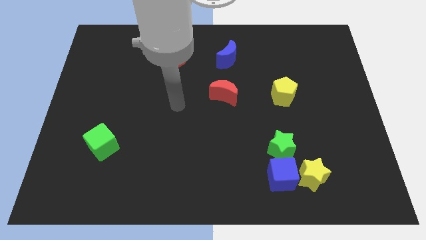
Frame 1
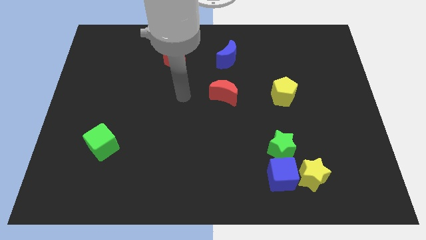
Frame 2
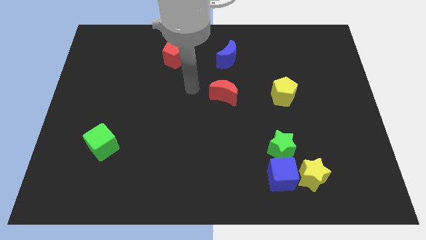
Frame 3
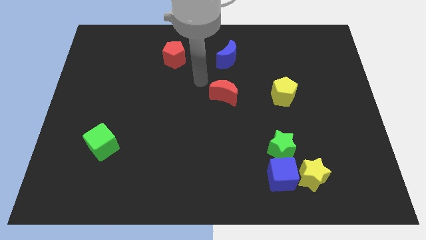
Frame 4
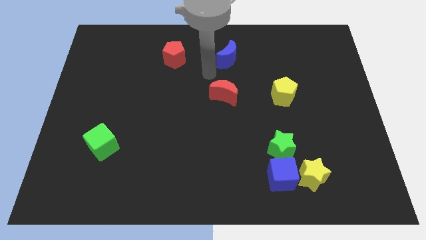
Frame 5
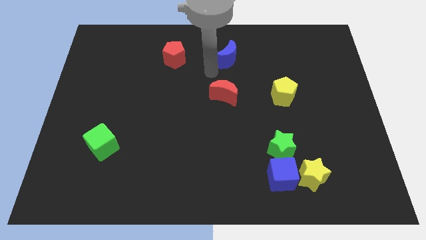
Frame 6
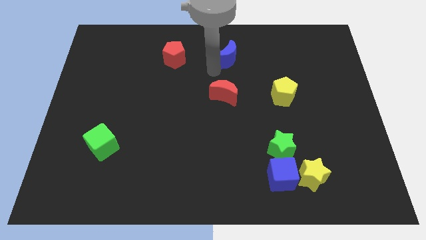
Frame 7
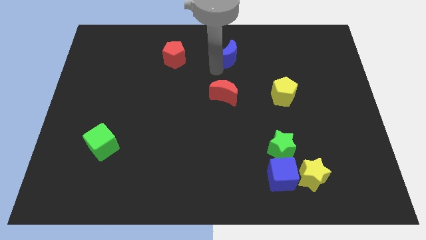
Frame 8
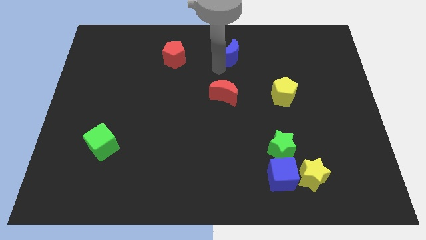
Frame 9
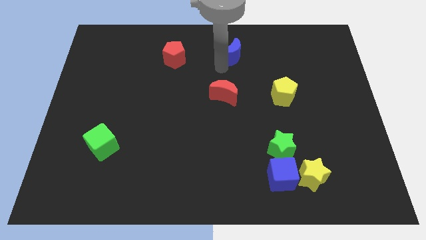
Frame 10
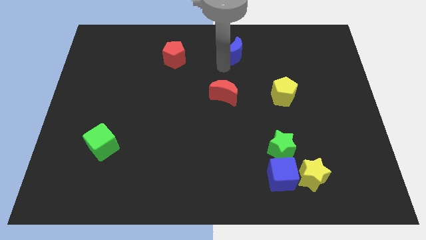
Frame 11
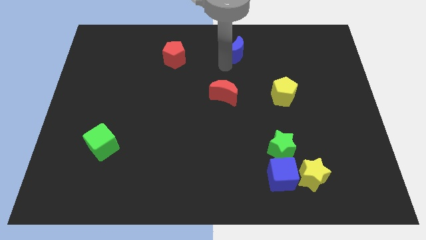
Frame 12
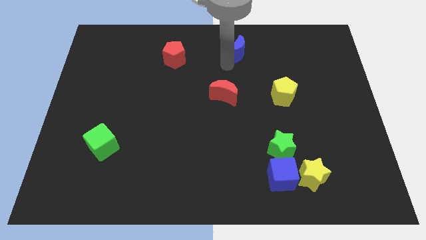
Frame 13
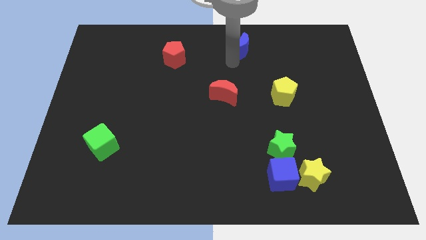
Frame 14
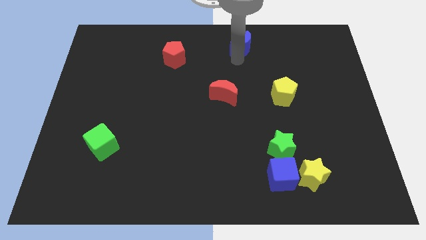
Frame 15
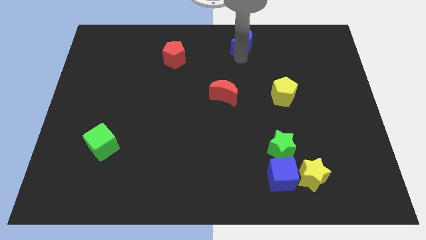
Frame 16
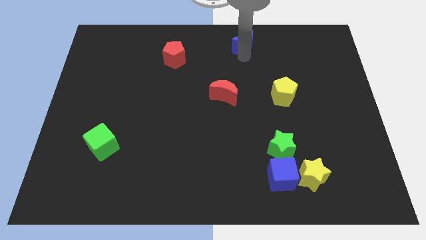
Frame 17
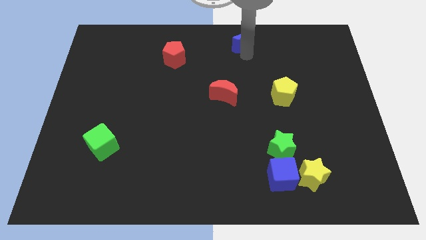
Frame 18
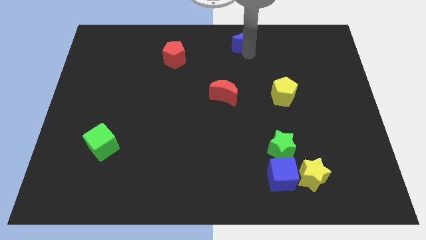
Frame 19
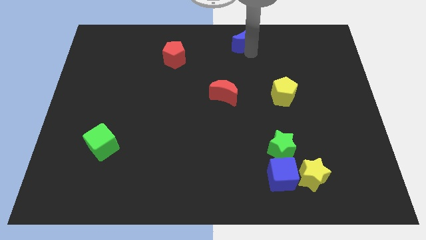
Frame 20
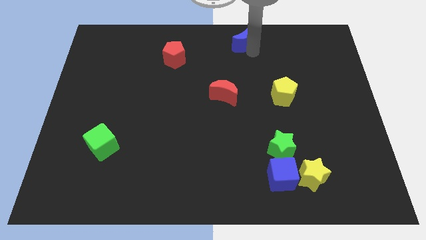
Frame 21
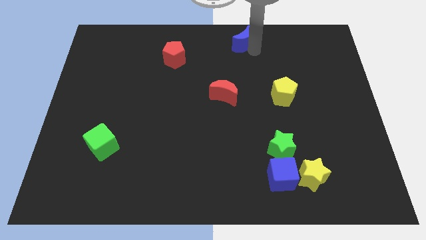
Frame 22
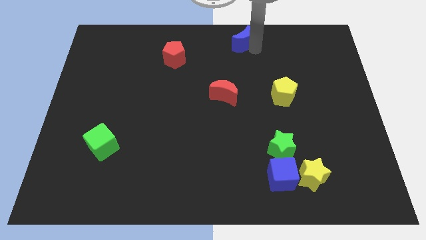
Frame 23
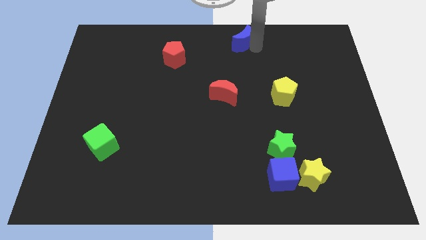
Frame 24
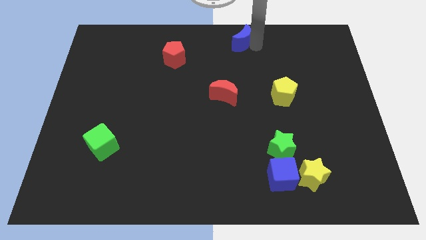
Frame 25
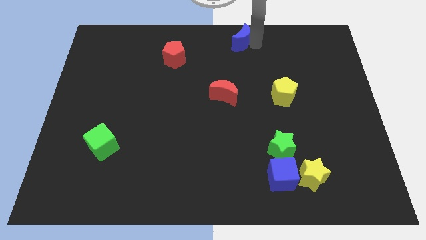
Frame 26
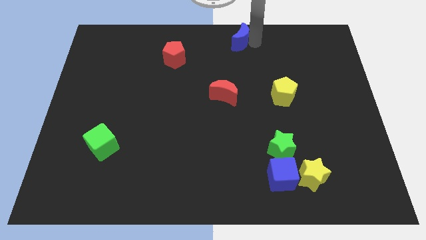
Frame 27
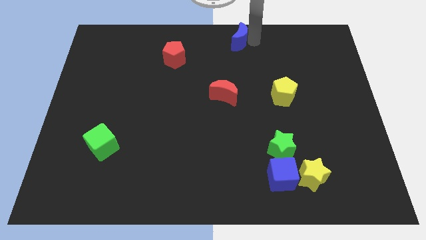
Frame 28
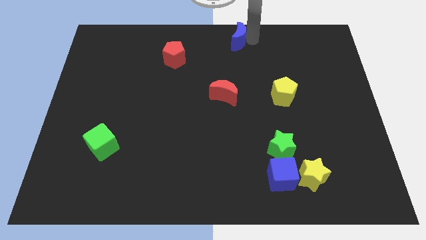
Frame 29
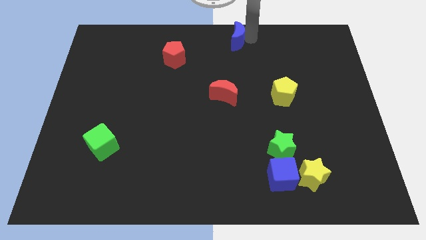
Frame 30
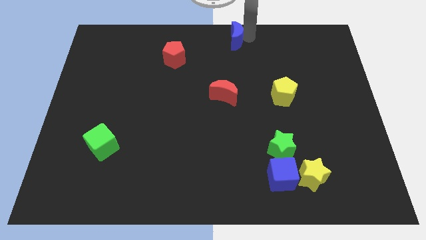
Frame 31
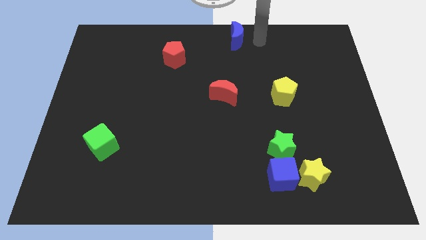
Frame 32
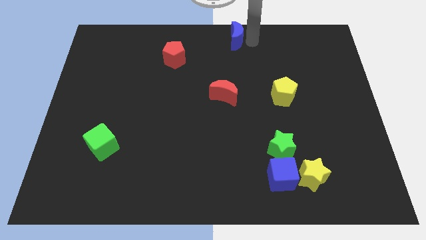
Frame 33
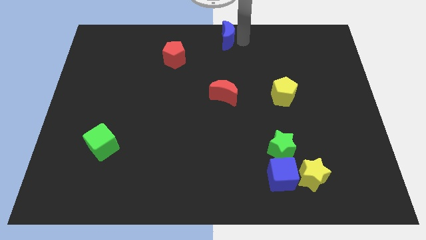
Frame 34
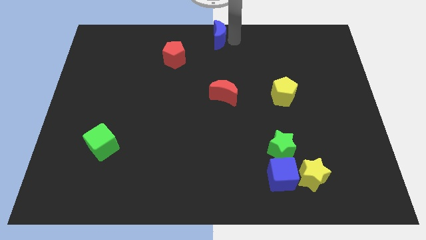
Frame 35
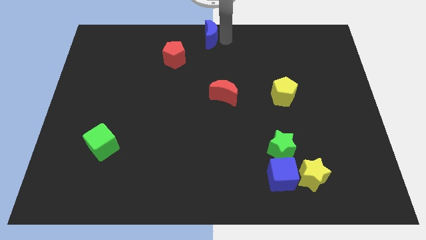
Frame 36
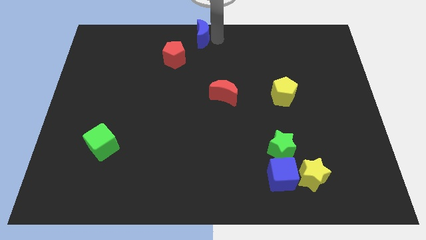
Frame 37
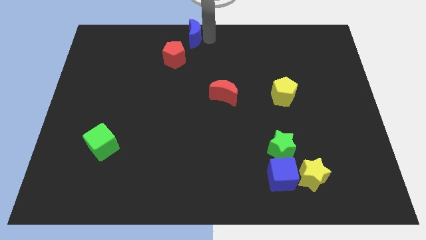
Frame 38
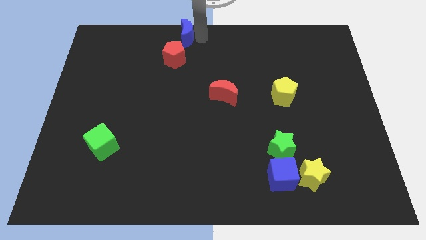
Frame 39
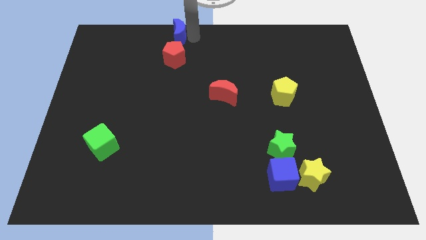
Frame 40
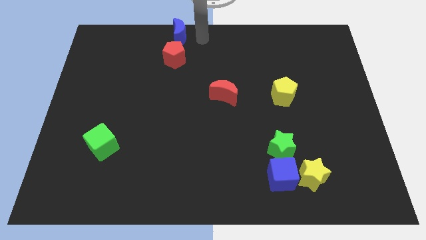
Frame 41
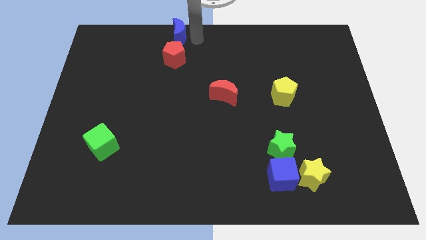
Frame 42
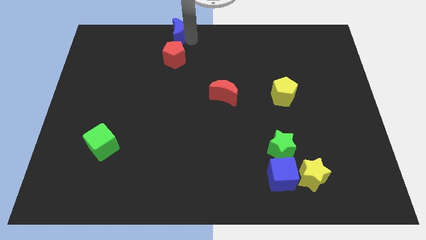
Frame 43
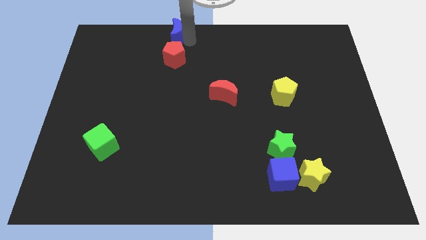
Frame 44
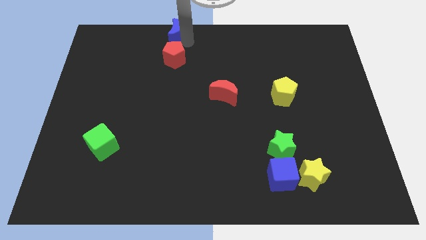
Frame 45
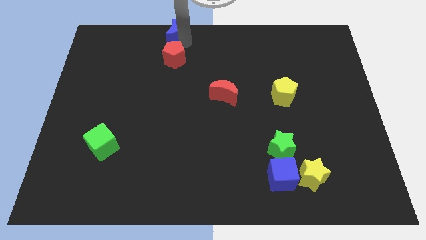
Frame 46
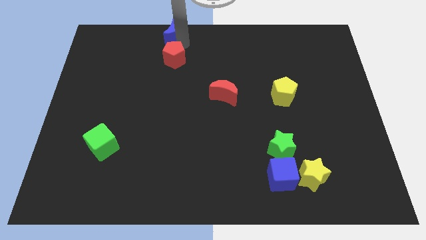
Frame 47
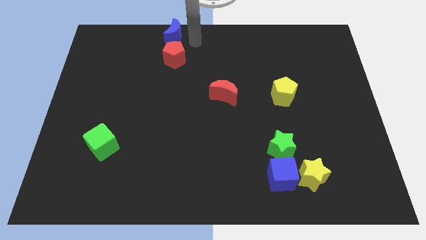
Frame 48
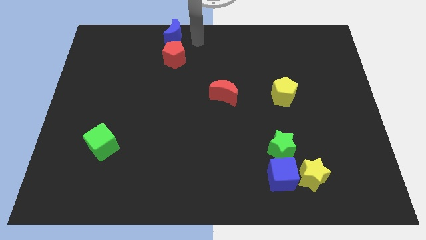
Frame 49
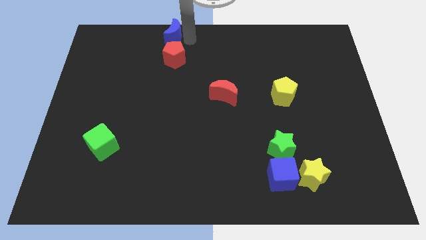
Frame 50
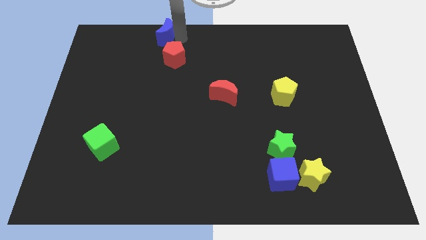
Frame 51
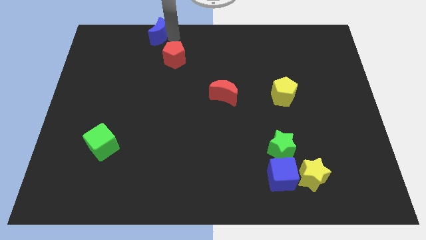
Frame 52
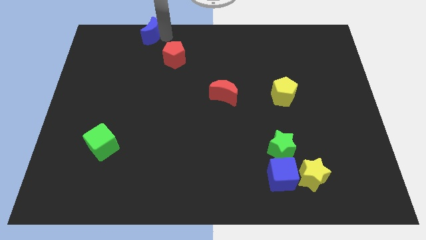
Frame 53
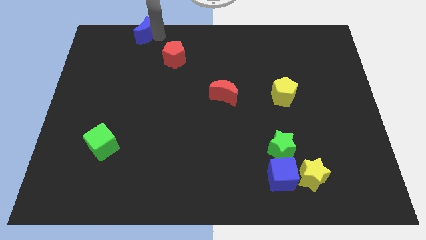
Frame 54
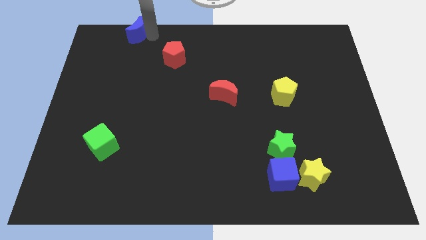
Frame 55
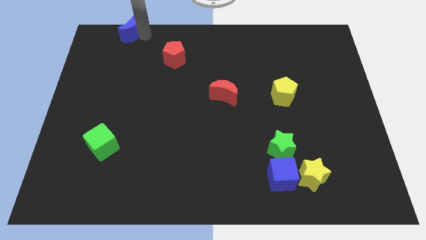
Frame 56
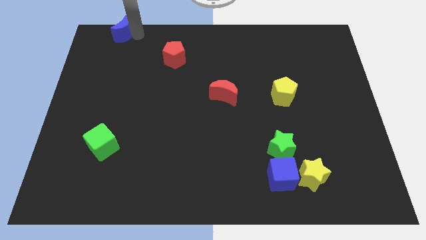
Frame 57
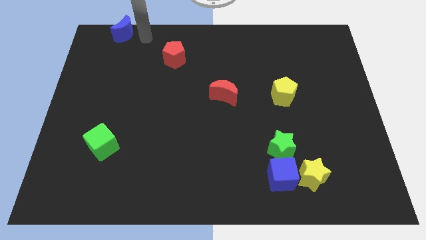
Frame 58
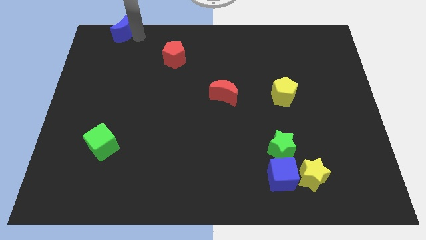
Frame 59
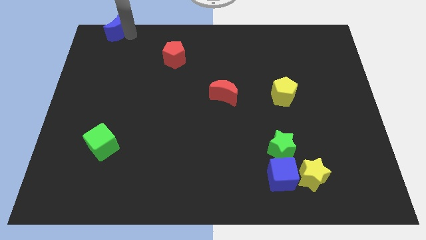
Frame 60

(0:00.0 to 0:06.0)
put the blue moon to the upper left corner
